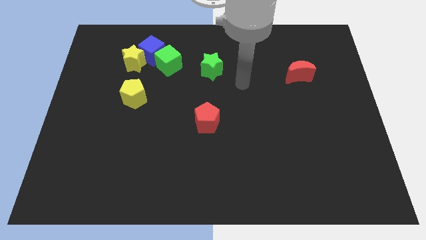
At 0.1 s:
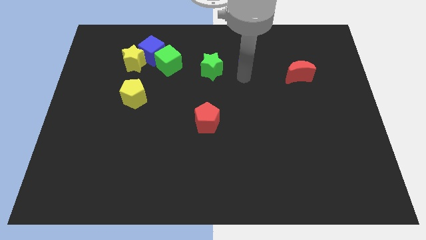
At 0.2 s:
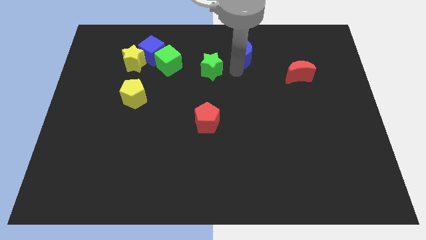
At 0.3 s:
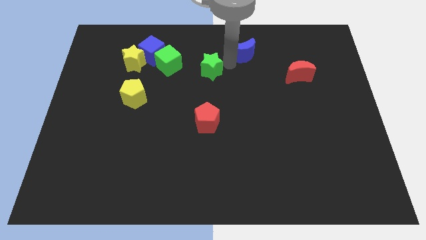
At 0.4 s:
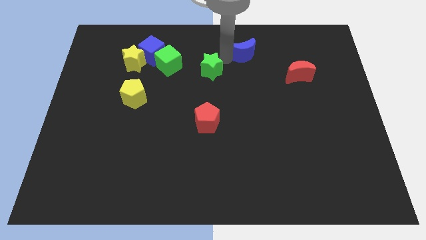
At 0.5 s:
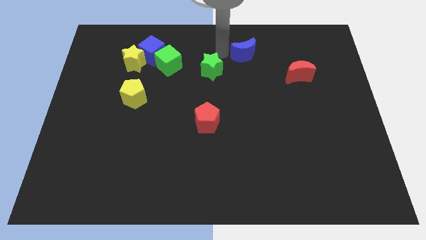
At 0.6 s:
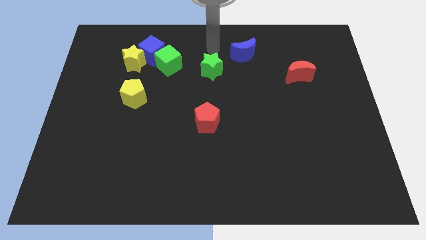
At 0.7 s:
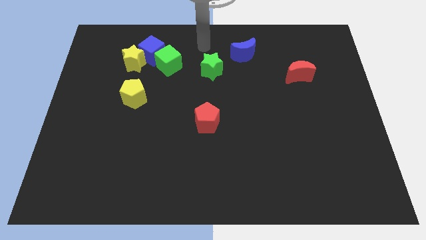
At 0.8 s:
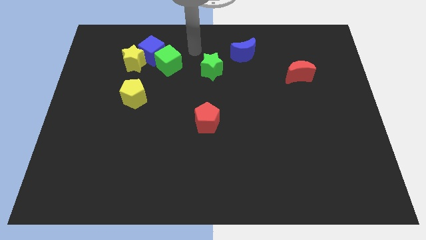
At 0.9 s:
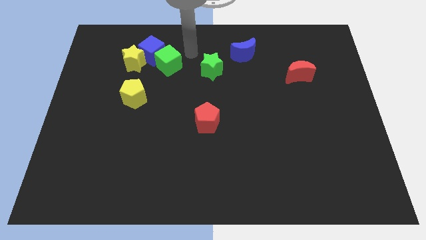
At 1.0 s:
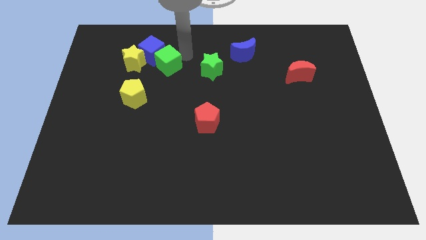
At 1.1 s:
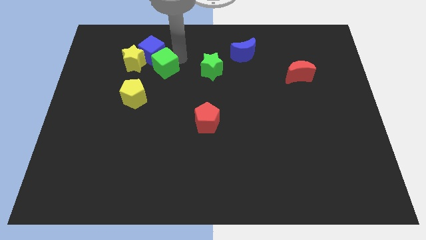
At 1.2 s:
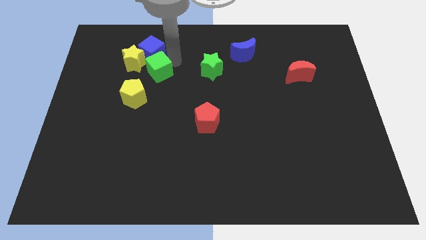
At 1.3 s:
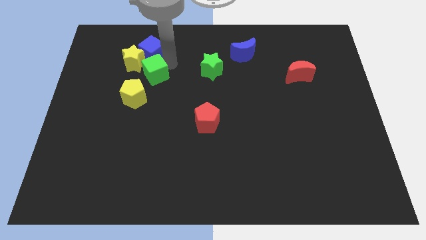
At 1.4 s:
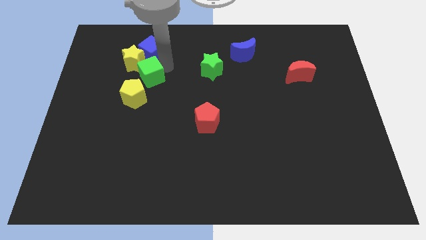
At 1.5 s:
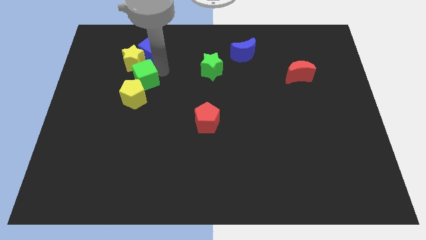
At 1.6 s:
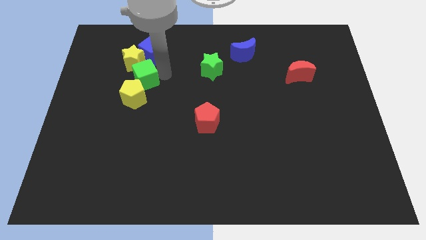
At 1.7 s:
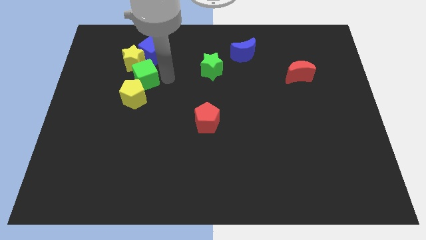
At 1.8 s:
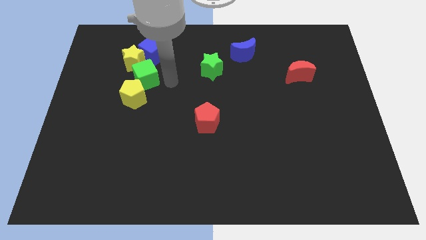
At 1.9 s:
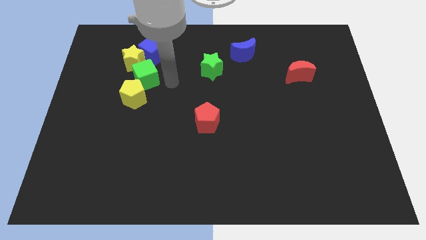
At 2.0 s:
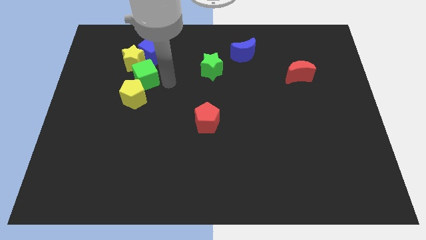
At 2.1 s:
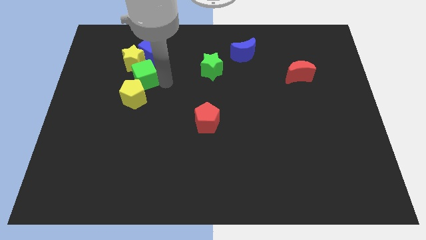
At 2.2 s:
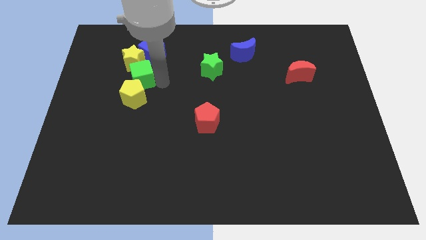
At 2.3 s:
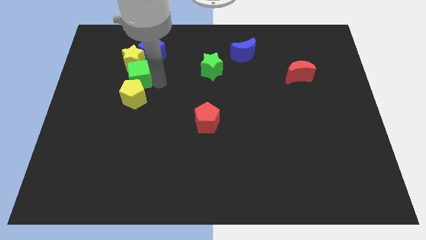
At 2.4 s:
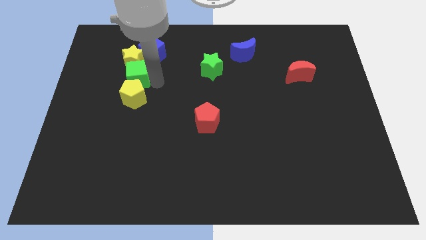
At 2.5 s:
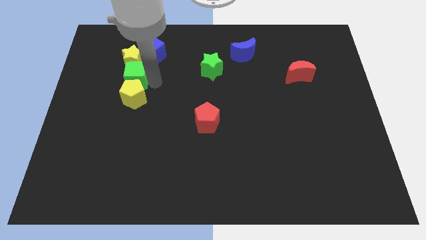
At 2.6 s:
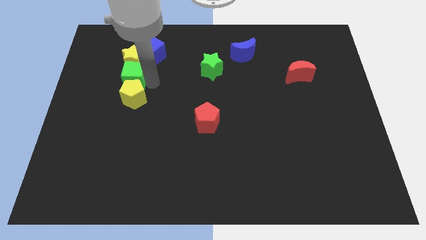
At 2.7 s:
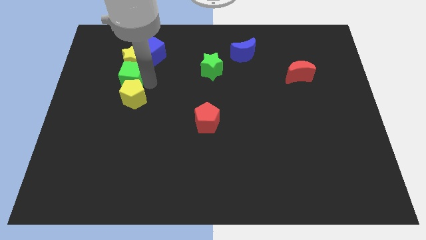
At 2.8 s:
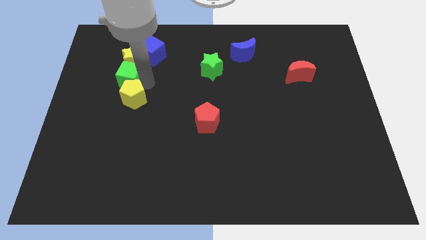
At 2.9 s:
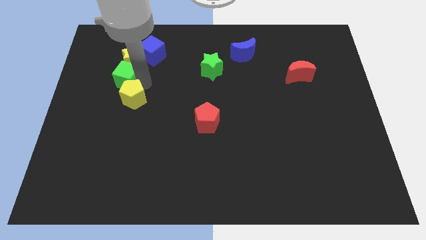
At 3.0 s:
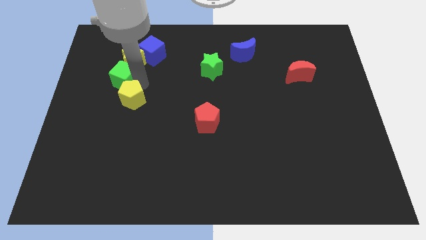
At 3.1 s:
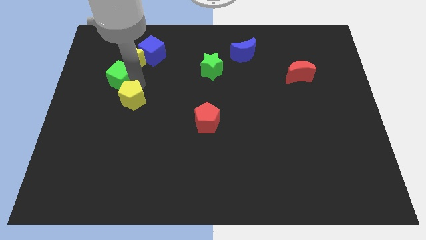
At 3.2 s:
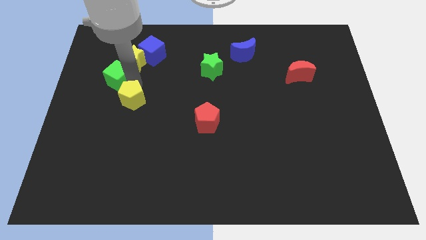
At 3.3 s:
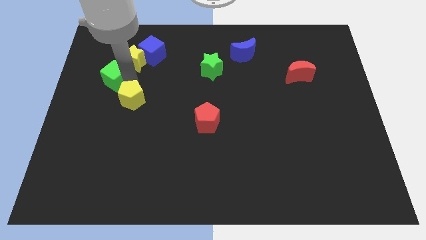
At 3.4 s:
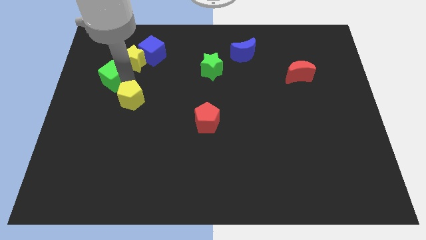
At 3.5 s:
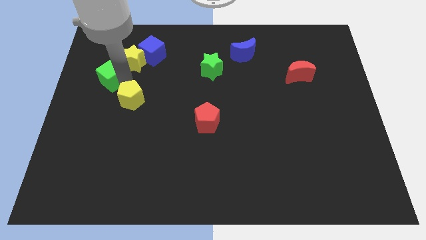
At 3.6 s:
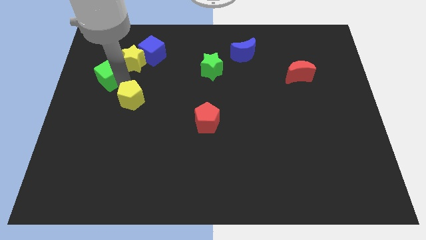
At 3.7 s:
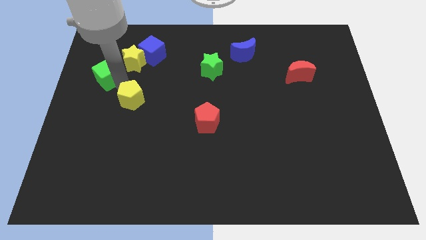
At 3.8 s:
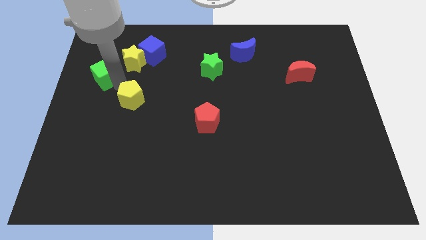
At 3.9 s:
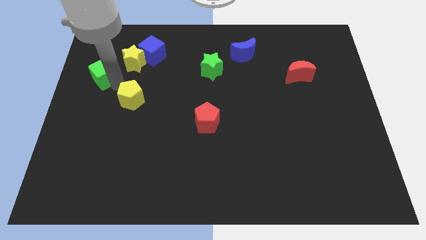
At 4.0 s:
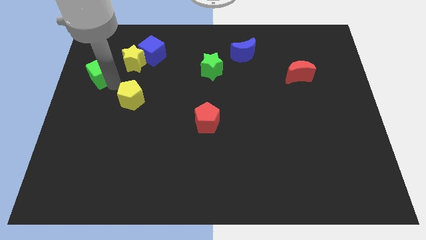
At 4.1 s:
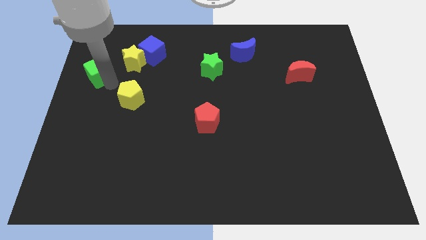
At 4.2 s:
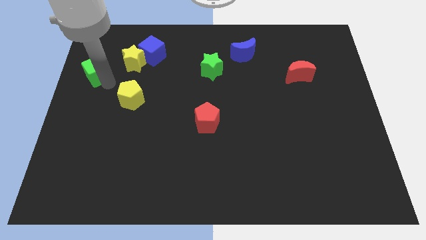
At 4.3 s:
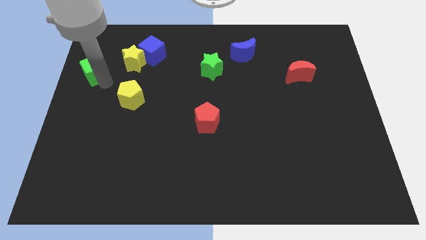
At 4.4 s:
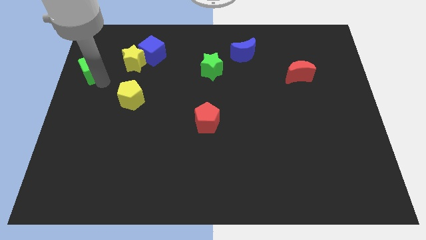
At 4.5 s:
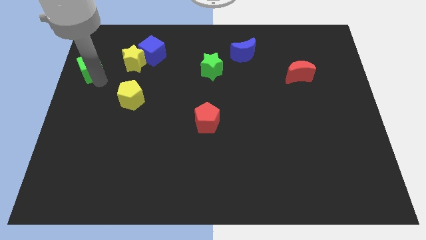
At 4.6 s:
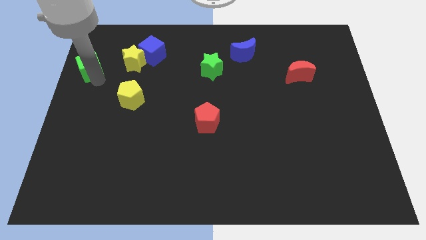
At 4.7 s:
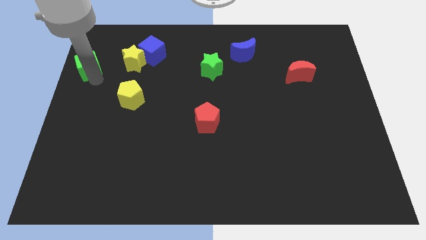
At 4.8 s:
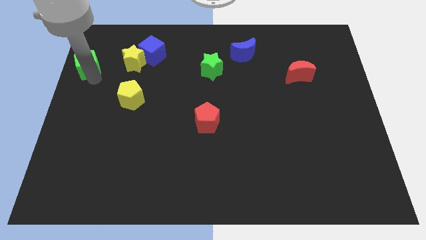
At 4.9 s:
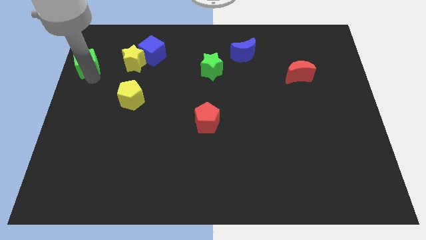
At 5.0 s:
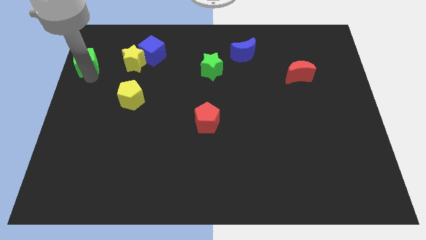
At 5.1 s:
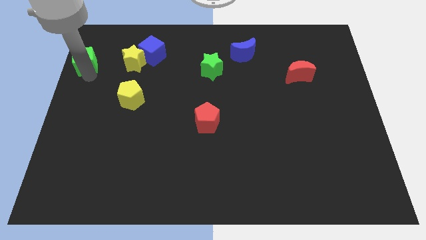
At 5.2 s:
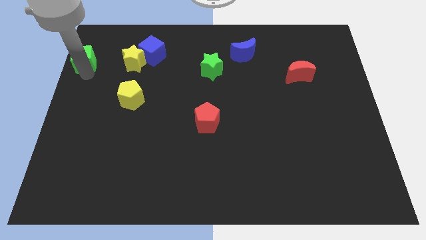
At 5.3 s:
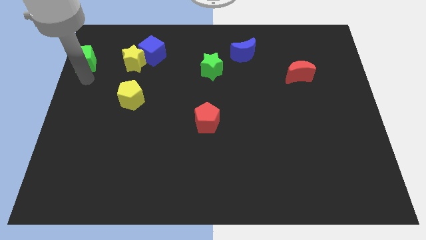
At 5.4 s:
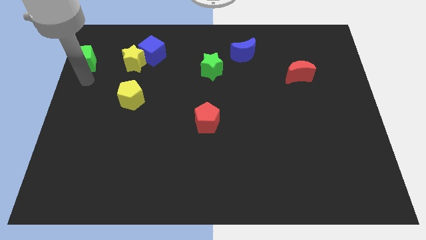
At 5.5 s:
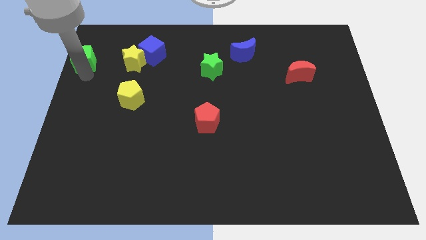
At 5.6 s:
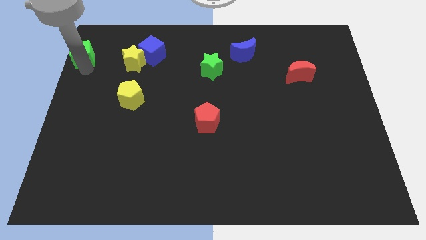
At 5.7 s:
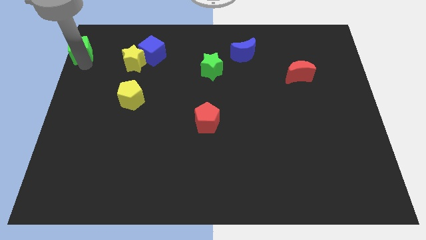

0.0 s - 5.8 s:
move the green cube to the top left
